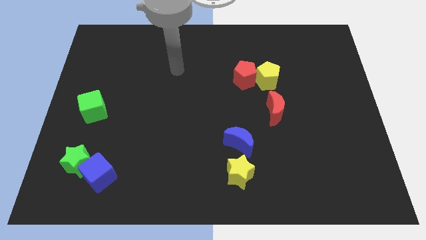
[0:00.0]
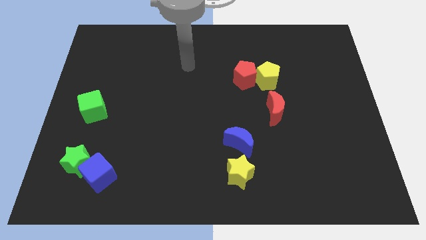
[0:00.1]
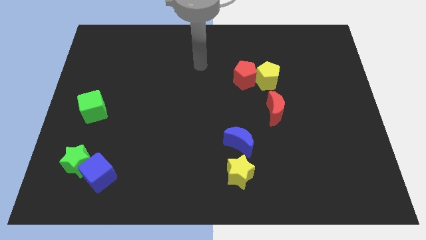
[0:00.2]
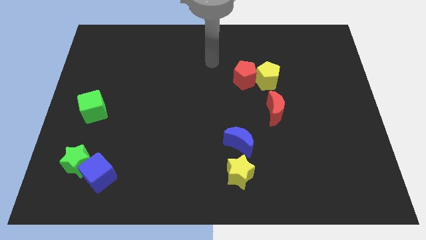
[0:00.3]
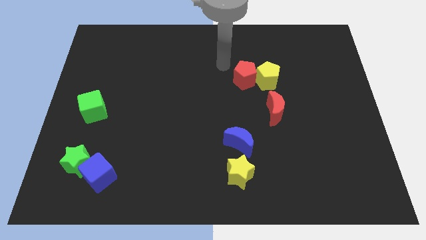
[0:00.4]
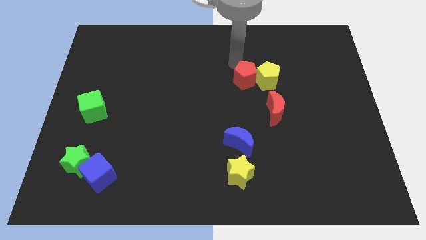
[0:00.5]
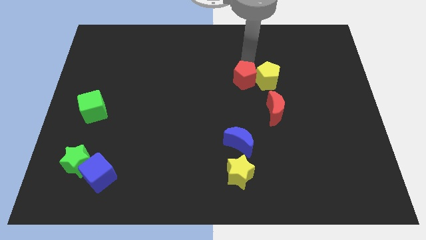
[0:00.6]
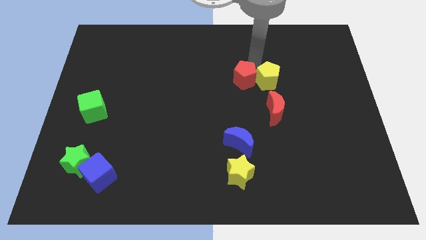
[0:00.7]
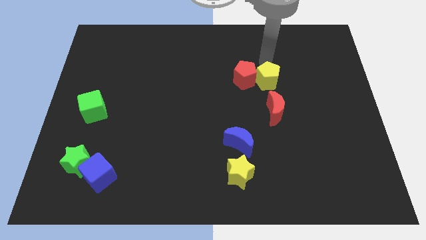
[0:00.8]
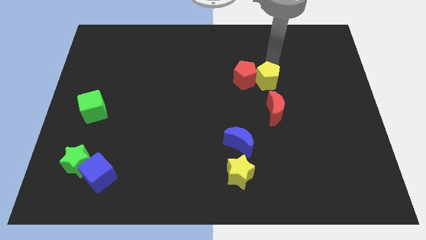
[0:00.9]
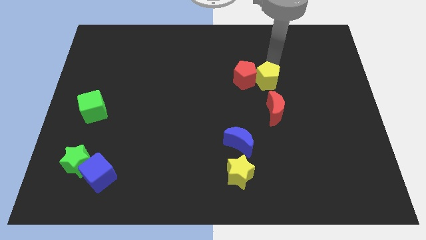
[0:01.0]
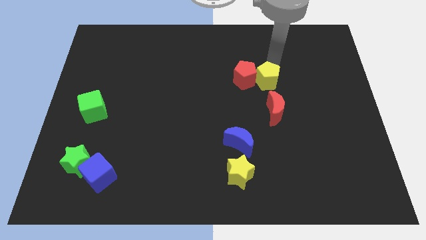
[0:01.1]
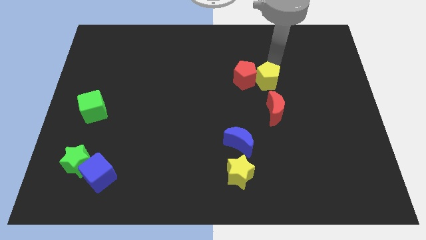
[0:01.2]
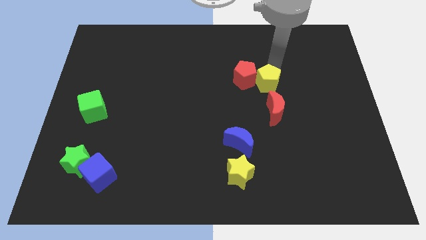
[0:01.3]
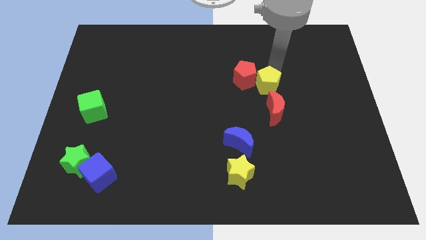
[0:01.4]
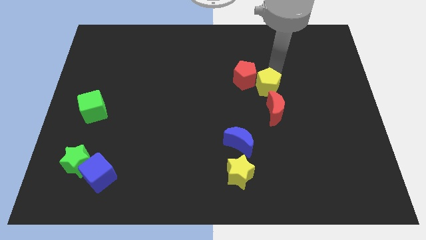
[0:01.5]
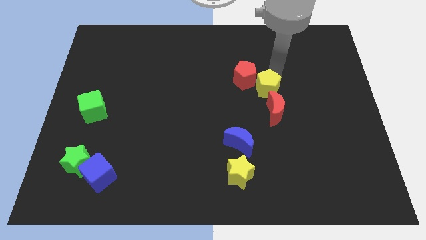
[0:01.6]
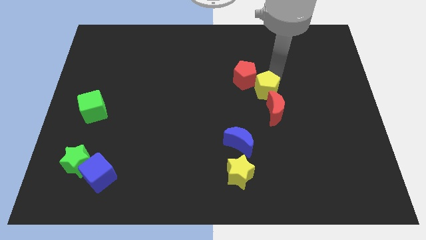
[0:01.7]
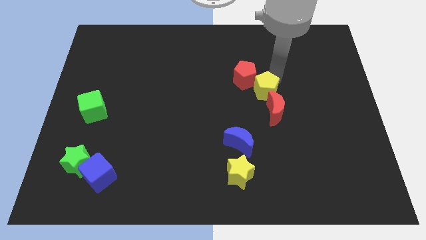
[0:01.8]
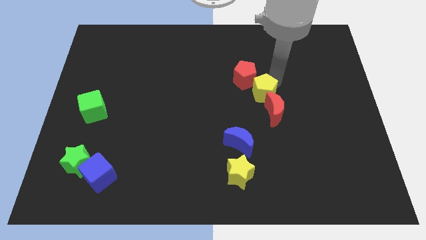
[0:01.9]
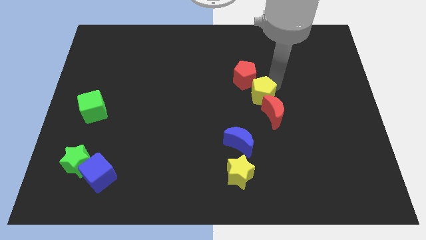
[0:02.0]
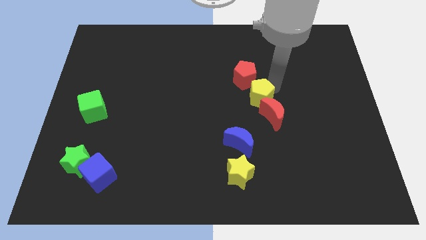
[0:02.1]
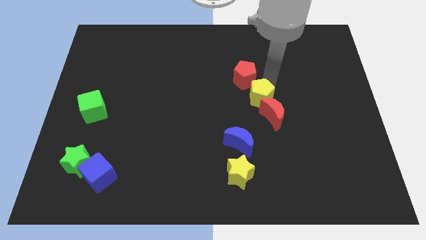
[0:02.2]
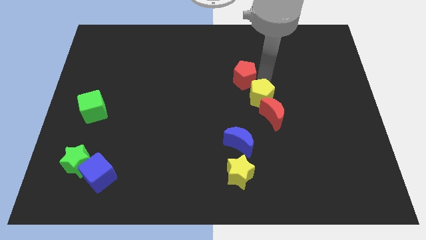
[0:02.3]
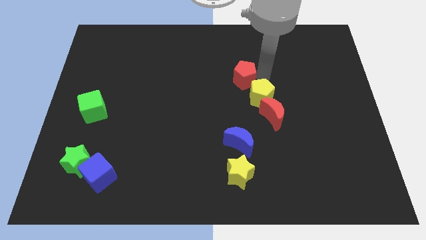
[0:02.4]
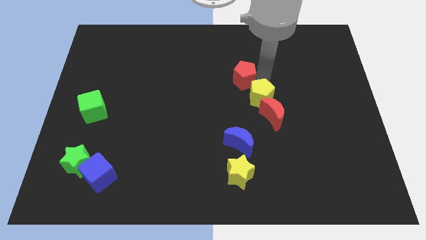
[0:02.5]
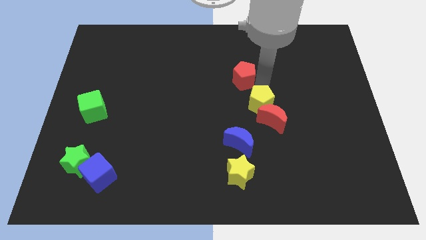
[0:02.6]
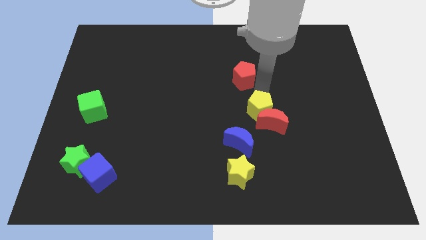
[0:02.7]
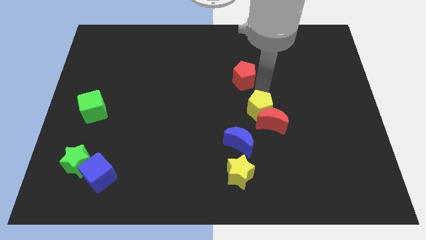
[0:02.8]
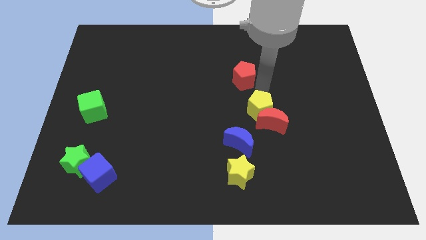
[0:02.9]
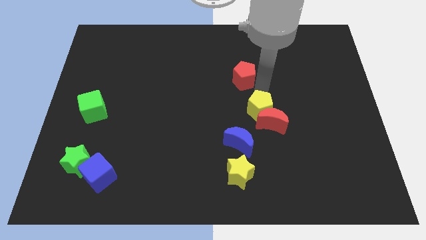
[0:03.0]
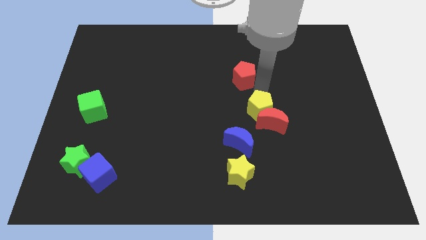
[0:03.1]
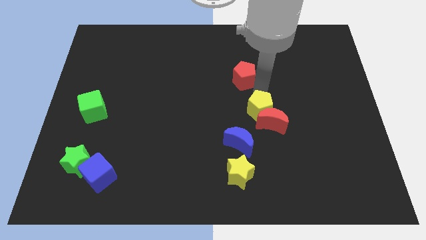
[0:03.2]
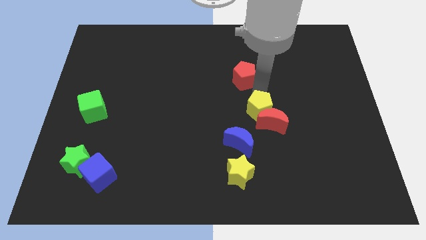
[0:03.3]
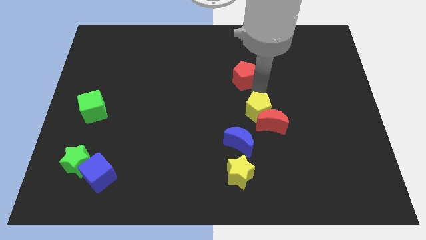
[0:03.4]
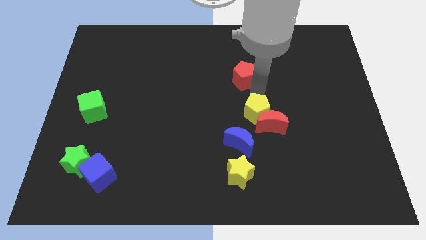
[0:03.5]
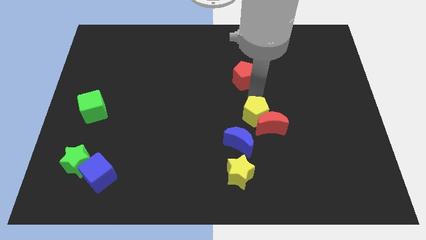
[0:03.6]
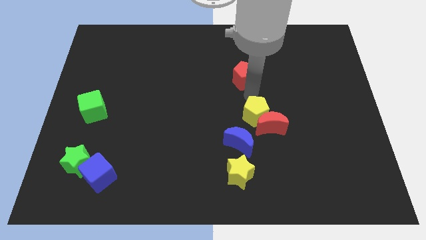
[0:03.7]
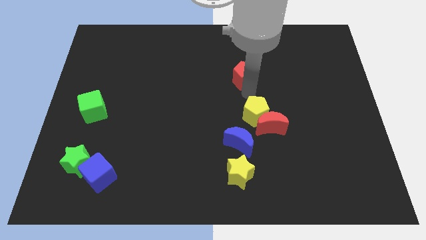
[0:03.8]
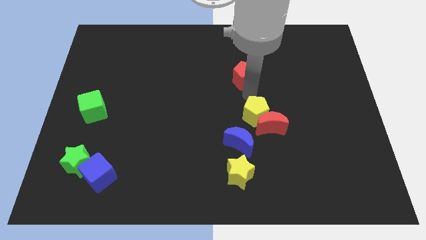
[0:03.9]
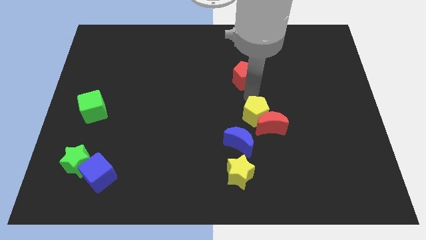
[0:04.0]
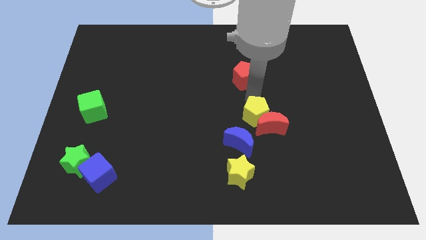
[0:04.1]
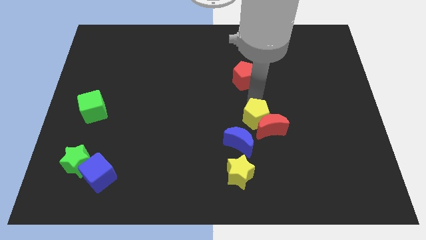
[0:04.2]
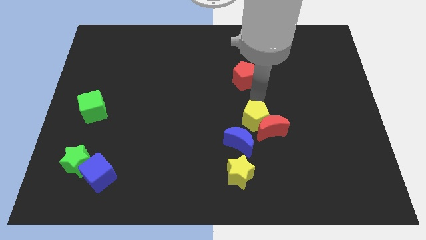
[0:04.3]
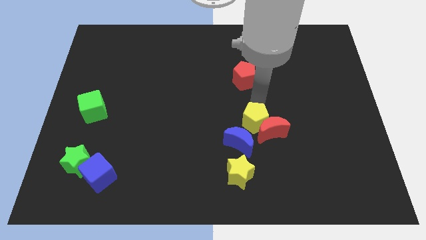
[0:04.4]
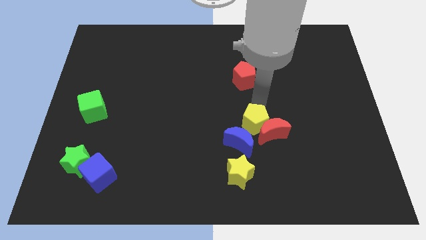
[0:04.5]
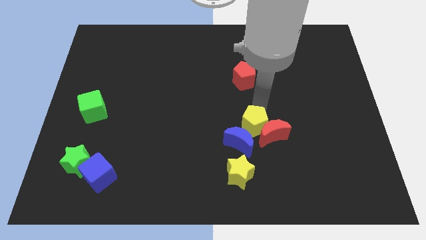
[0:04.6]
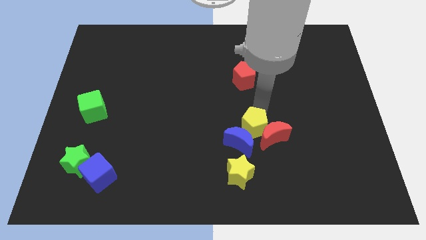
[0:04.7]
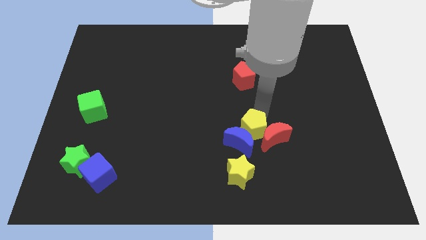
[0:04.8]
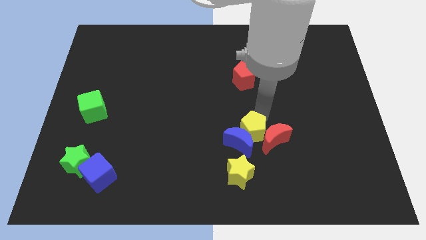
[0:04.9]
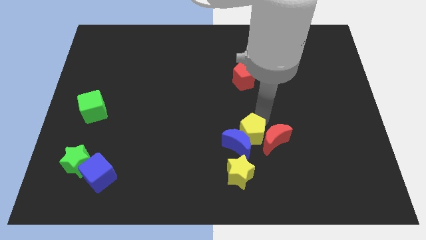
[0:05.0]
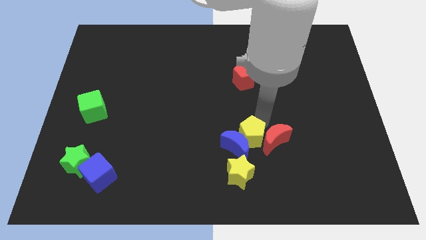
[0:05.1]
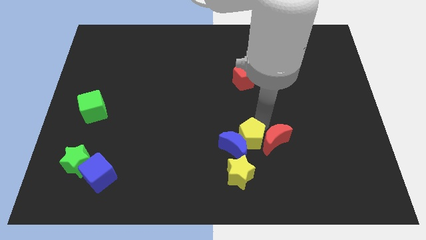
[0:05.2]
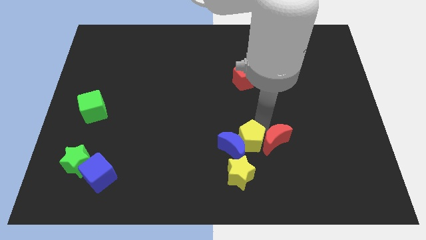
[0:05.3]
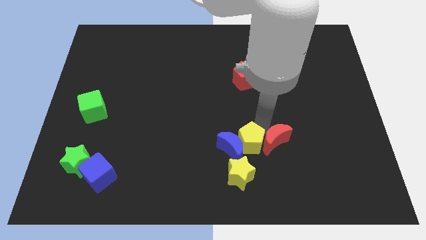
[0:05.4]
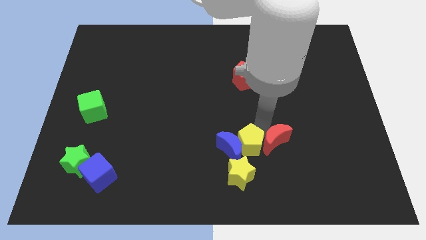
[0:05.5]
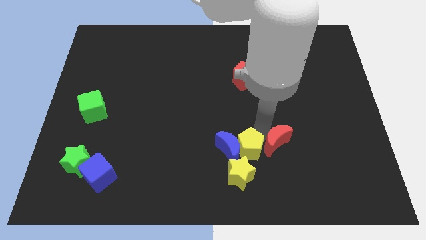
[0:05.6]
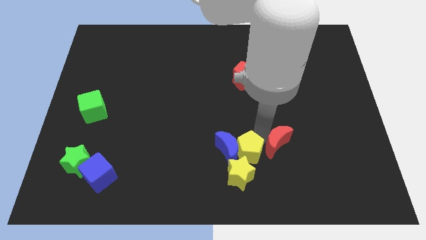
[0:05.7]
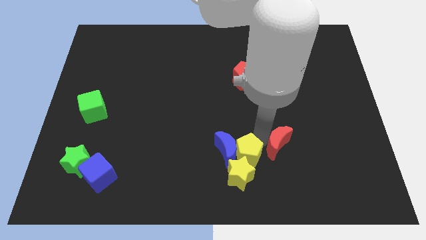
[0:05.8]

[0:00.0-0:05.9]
put the yellow pentagon next to the yellow star

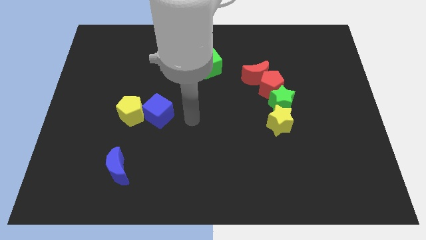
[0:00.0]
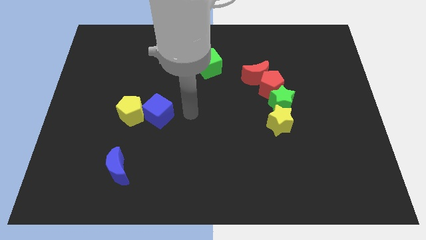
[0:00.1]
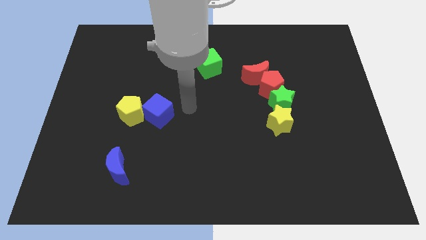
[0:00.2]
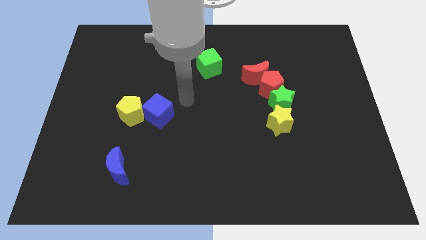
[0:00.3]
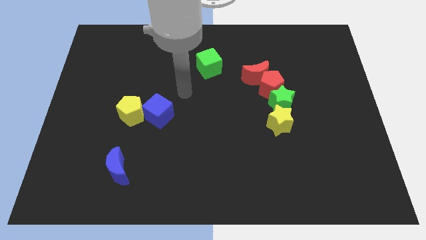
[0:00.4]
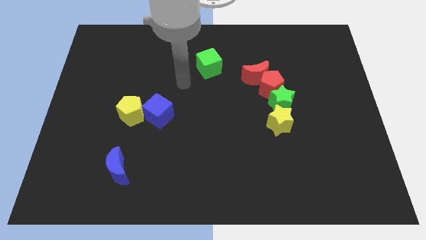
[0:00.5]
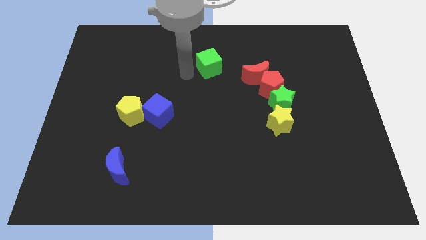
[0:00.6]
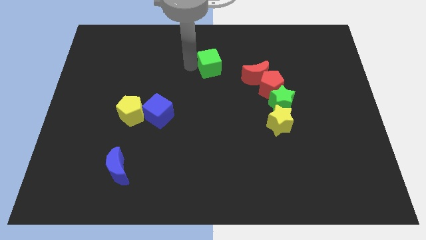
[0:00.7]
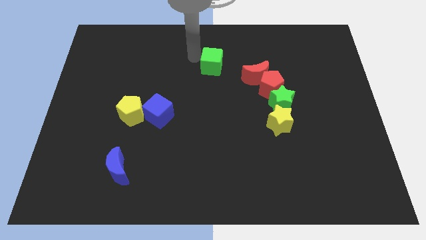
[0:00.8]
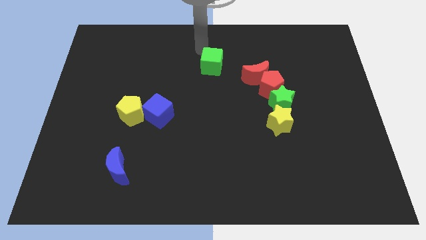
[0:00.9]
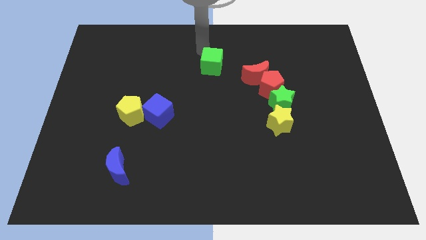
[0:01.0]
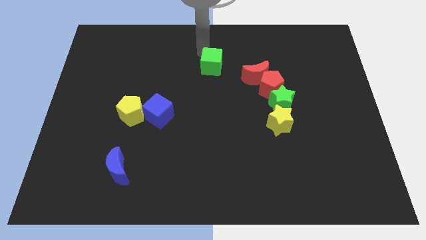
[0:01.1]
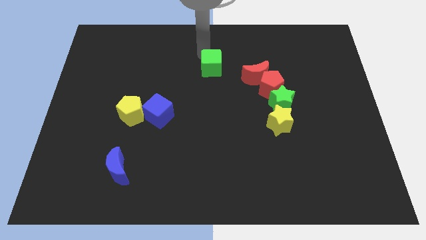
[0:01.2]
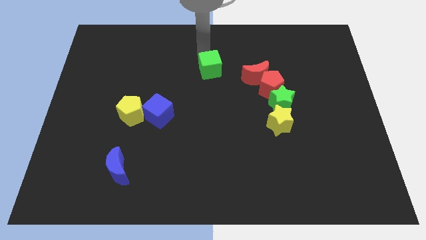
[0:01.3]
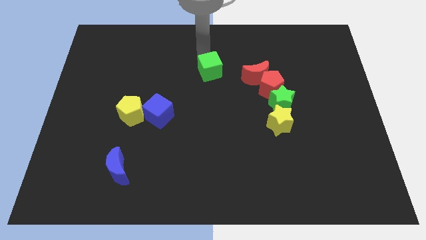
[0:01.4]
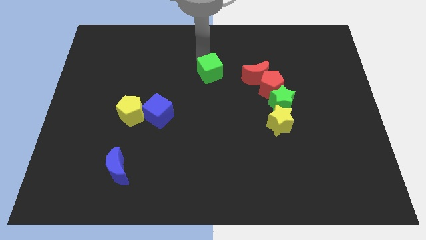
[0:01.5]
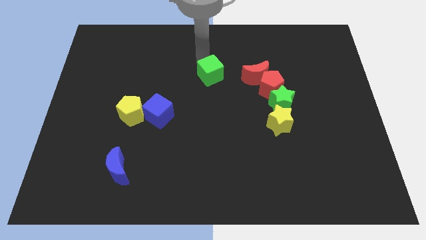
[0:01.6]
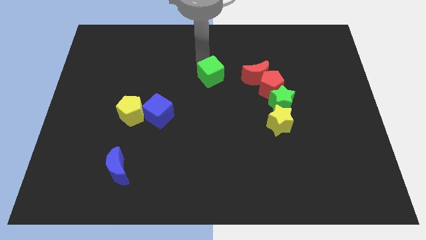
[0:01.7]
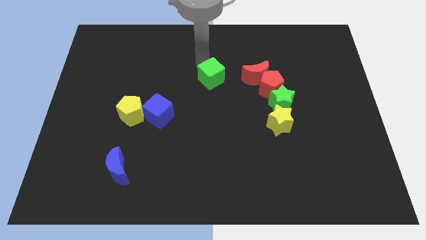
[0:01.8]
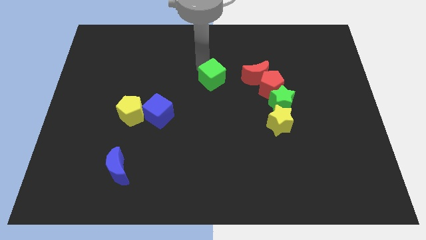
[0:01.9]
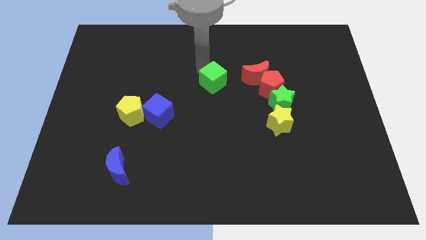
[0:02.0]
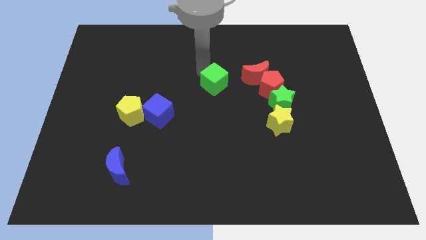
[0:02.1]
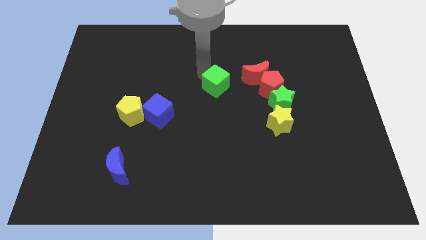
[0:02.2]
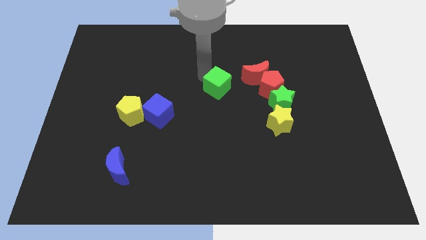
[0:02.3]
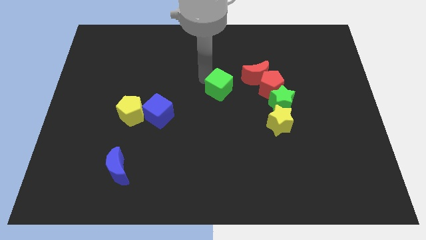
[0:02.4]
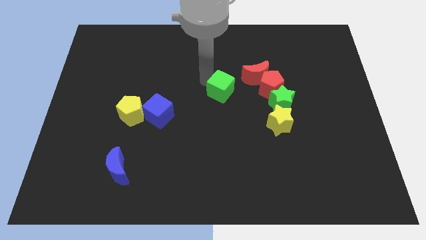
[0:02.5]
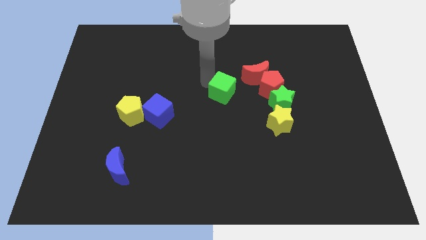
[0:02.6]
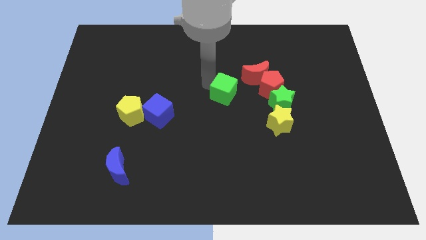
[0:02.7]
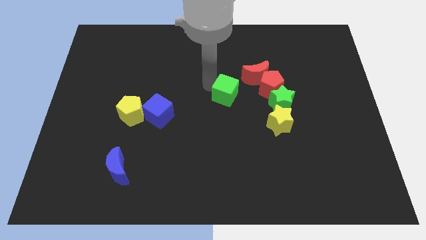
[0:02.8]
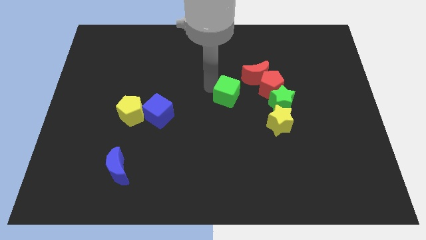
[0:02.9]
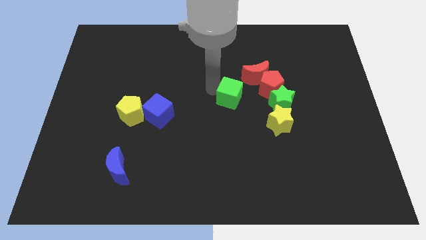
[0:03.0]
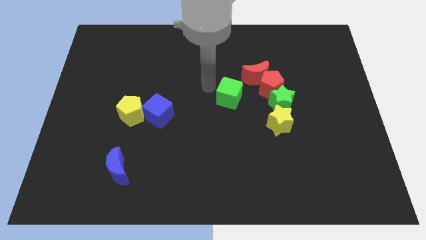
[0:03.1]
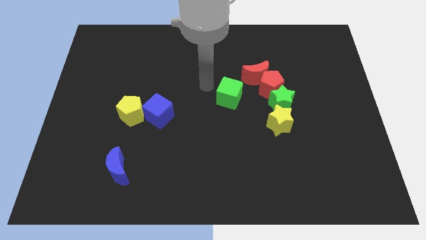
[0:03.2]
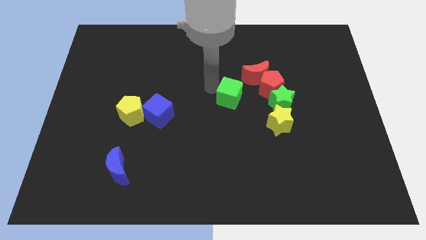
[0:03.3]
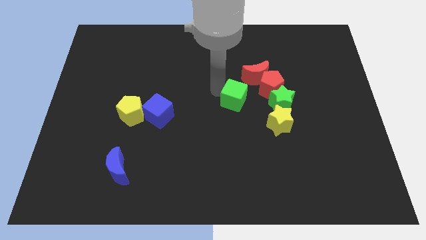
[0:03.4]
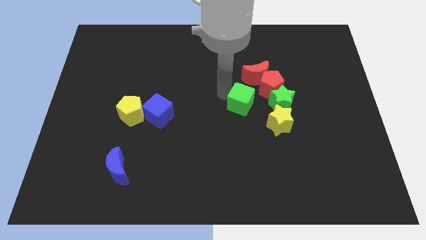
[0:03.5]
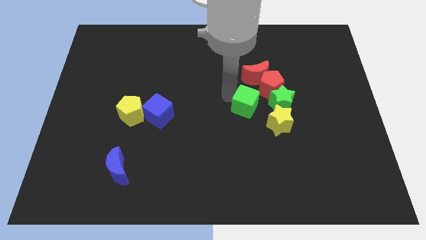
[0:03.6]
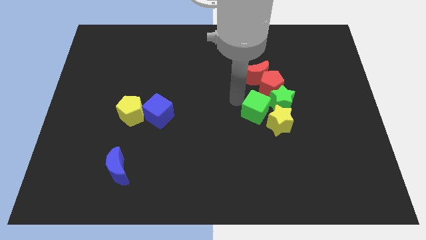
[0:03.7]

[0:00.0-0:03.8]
slide the green cube next to the yellow star
